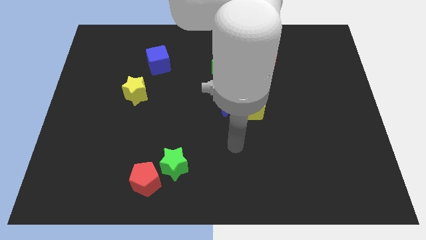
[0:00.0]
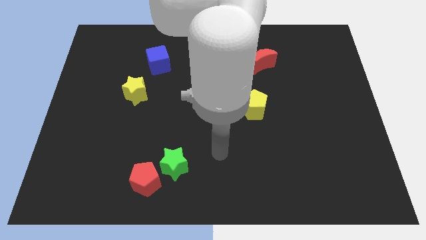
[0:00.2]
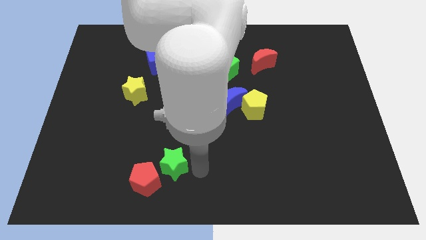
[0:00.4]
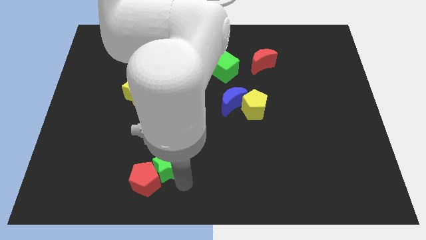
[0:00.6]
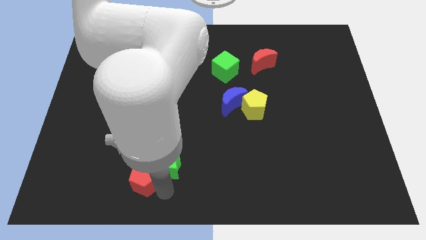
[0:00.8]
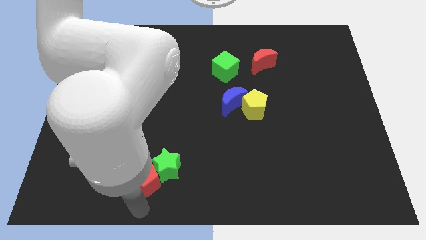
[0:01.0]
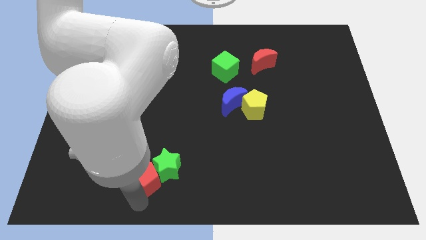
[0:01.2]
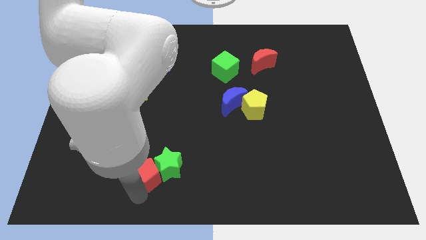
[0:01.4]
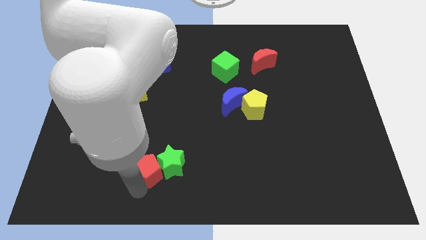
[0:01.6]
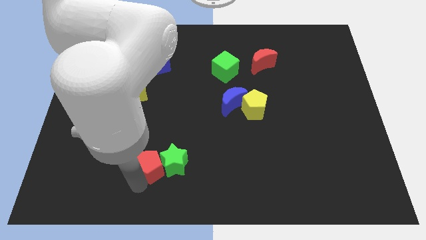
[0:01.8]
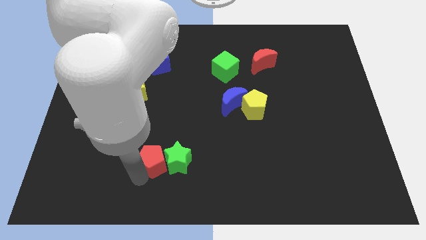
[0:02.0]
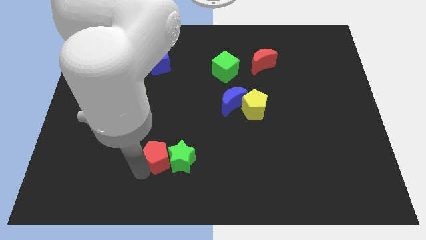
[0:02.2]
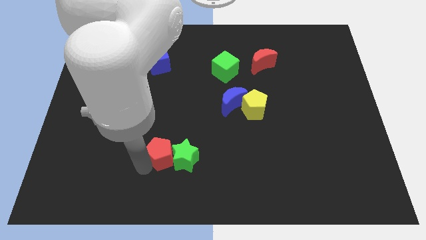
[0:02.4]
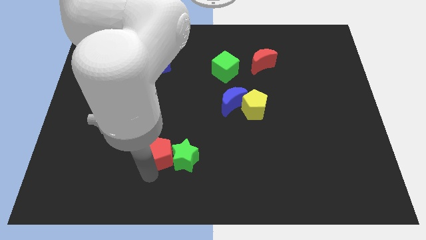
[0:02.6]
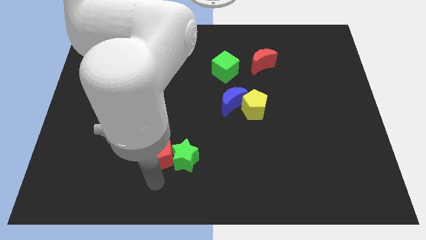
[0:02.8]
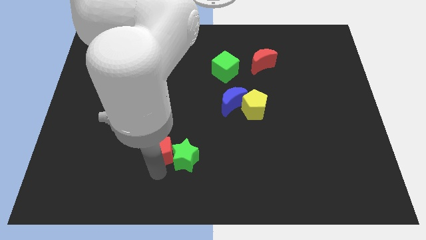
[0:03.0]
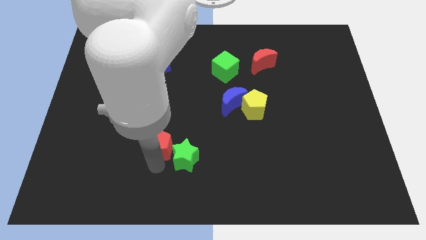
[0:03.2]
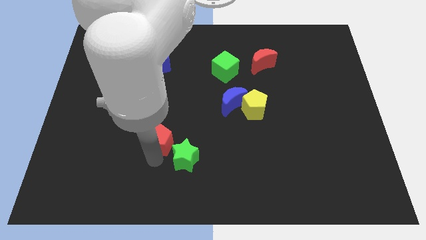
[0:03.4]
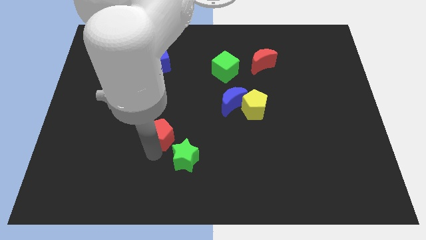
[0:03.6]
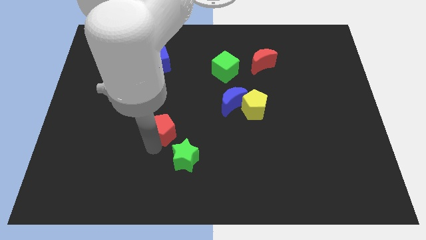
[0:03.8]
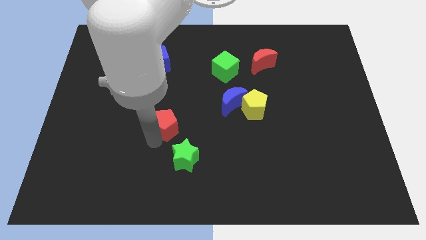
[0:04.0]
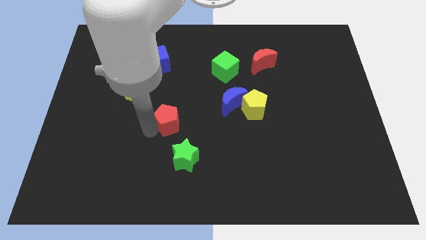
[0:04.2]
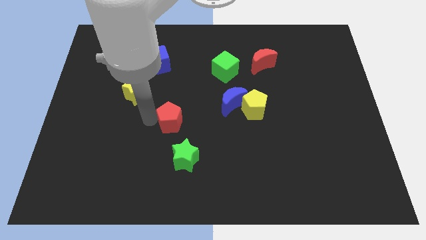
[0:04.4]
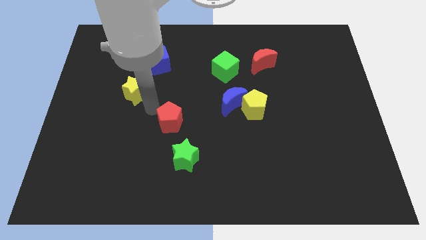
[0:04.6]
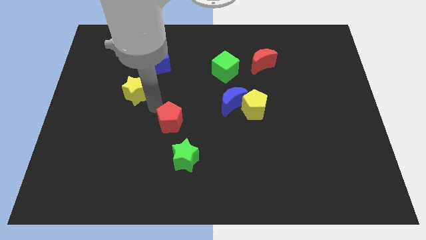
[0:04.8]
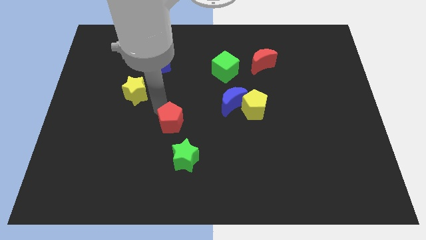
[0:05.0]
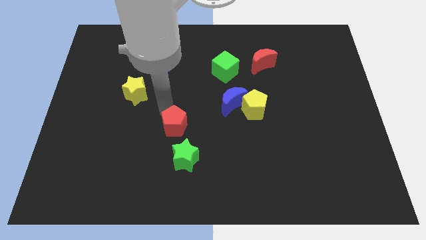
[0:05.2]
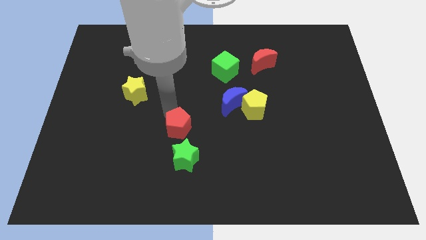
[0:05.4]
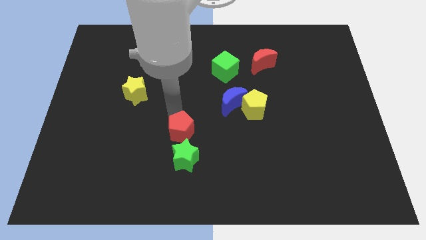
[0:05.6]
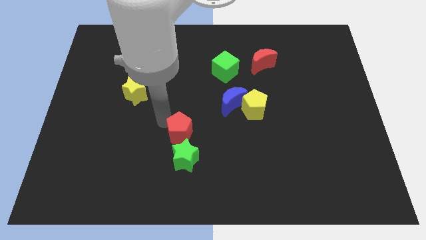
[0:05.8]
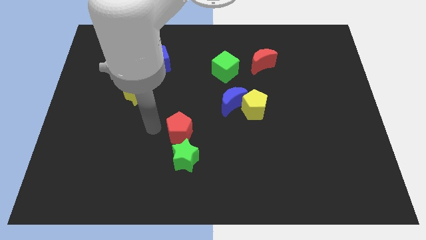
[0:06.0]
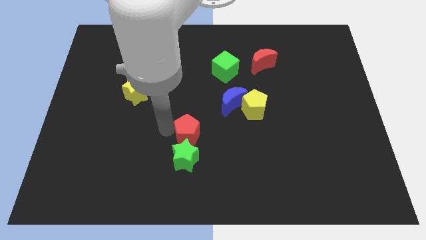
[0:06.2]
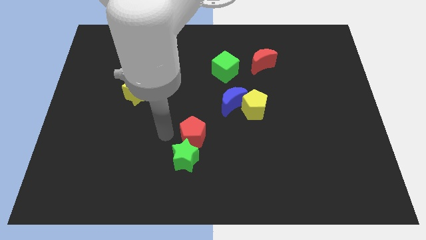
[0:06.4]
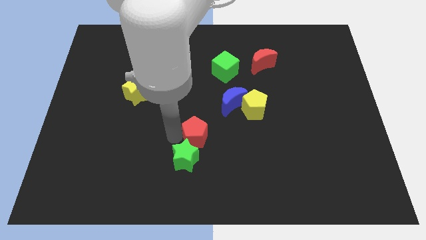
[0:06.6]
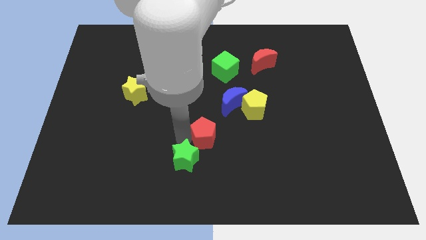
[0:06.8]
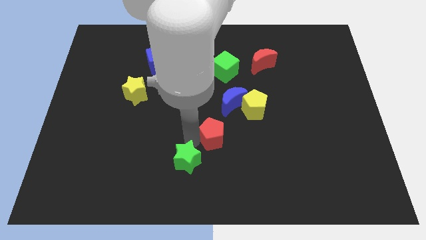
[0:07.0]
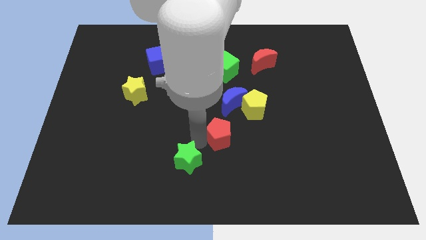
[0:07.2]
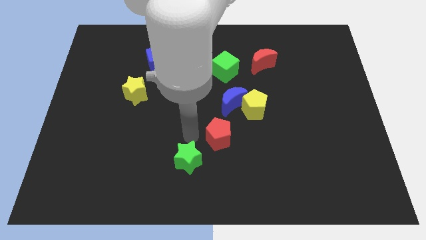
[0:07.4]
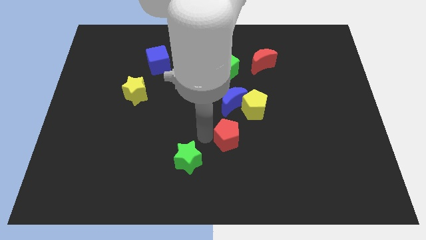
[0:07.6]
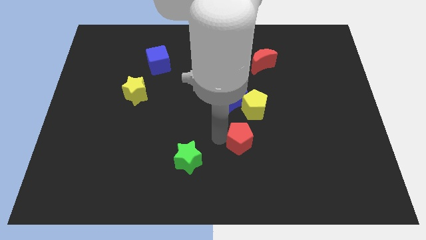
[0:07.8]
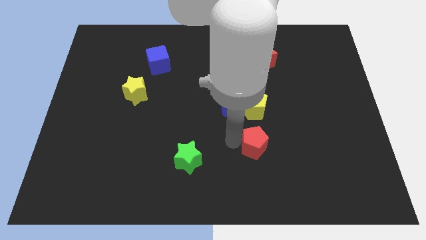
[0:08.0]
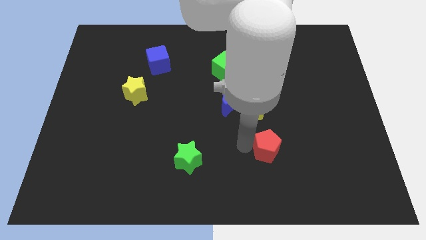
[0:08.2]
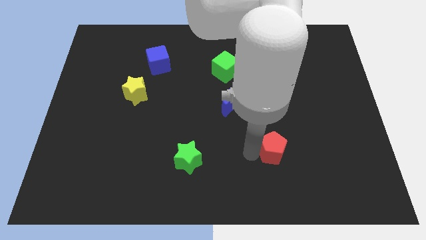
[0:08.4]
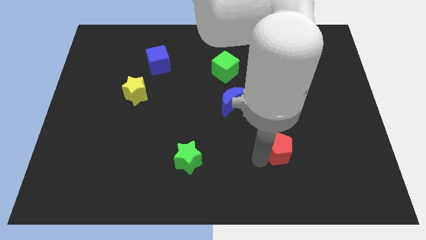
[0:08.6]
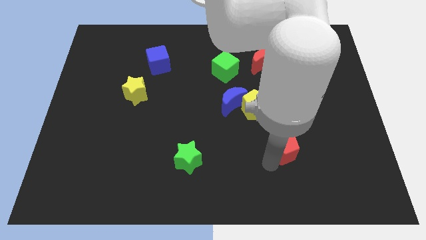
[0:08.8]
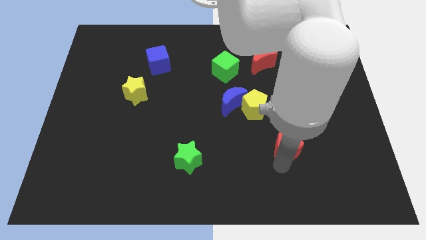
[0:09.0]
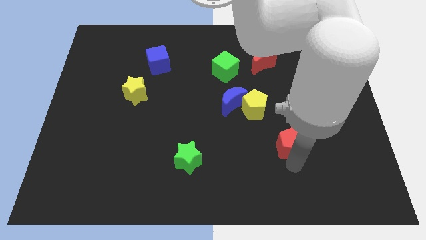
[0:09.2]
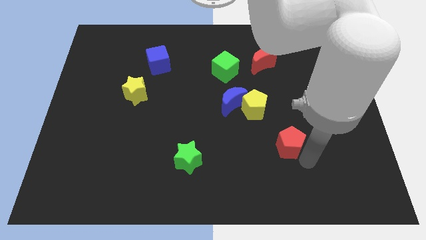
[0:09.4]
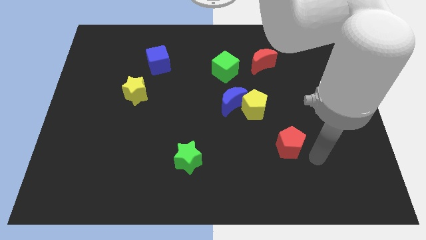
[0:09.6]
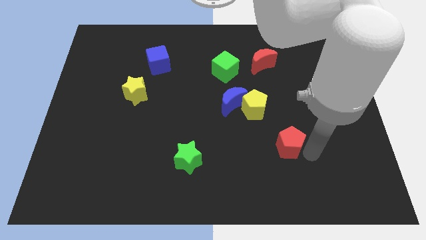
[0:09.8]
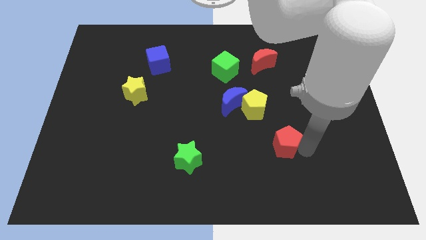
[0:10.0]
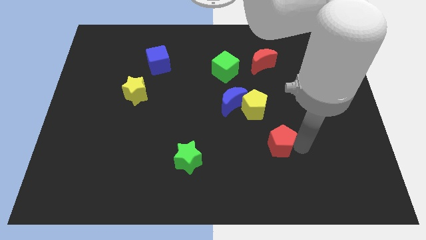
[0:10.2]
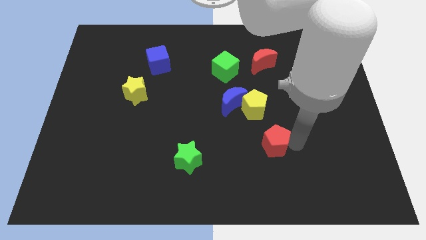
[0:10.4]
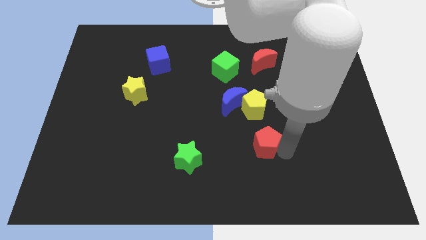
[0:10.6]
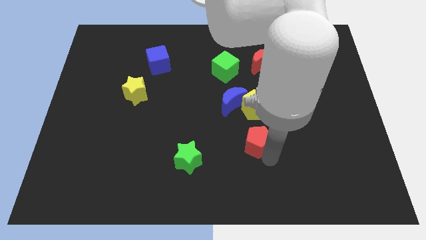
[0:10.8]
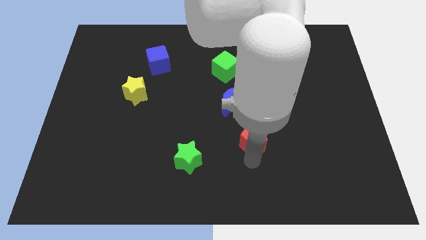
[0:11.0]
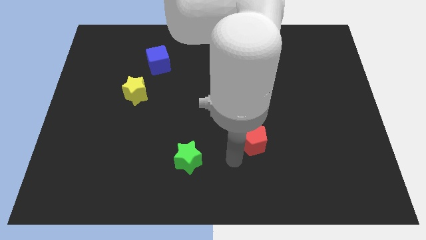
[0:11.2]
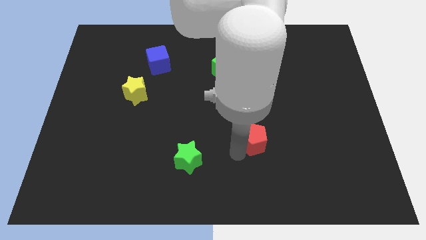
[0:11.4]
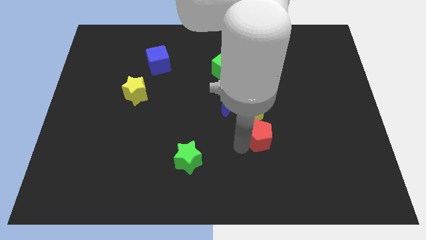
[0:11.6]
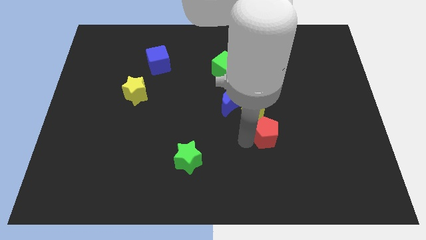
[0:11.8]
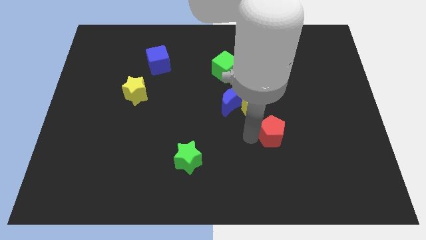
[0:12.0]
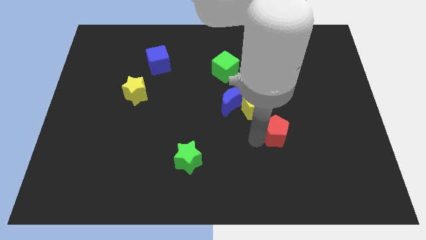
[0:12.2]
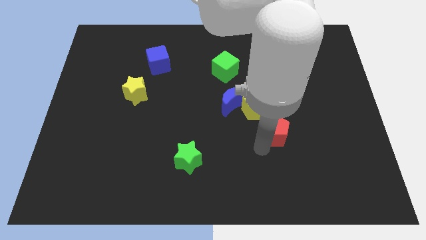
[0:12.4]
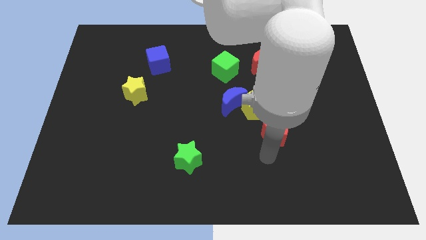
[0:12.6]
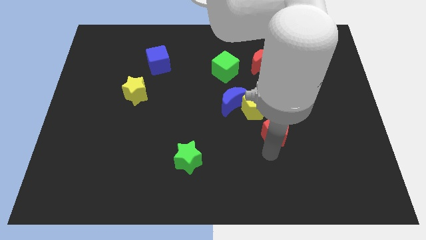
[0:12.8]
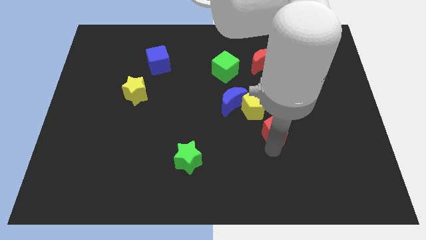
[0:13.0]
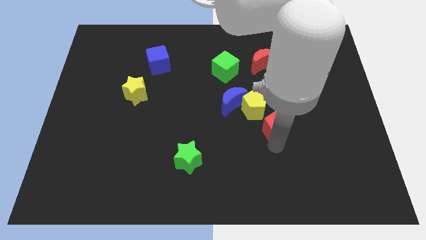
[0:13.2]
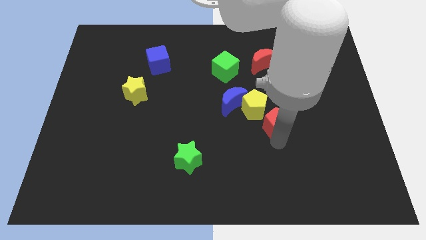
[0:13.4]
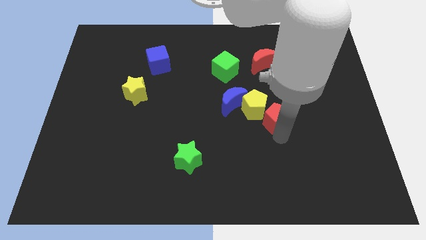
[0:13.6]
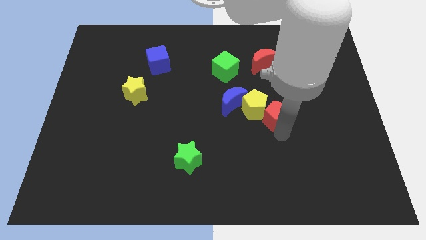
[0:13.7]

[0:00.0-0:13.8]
slide the red pentagon to the right side of the blue moon

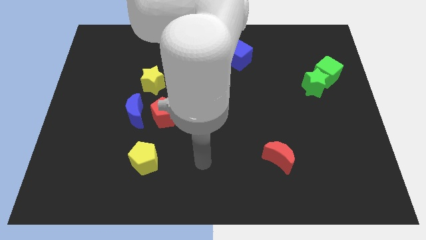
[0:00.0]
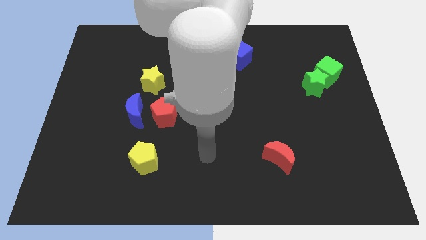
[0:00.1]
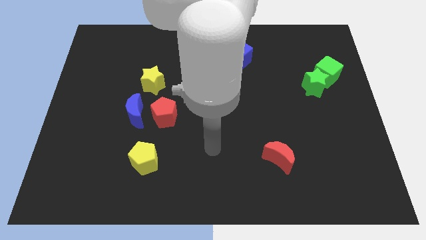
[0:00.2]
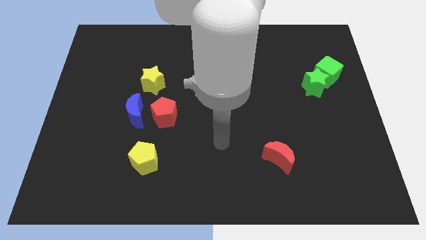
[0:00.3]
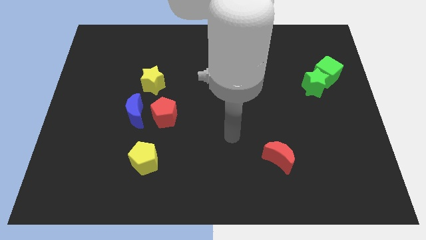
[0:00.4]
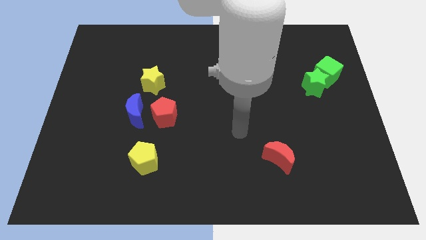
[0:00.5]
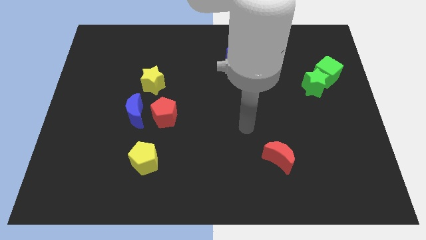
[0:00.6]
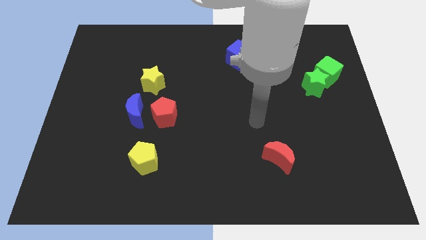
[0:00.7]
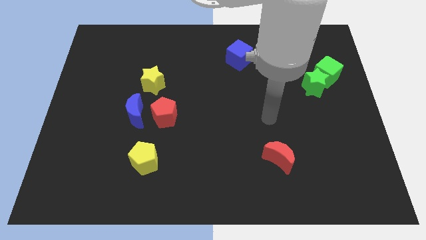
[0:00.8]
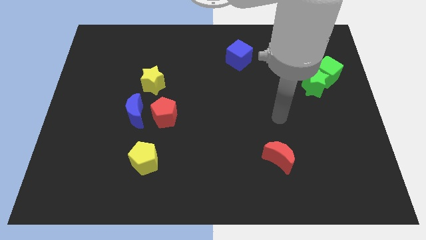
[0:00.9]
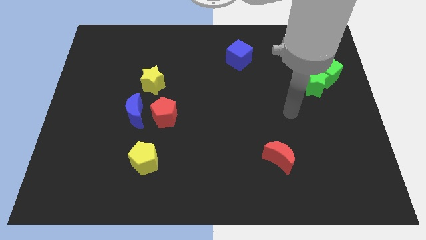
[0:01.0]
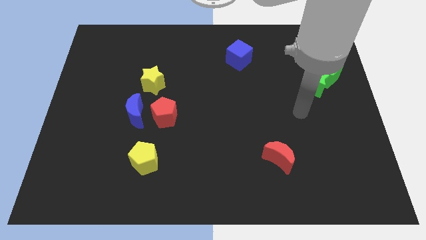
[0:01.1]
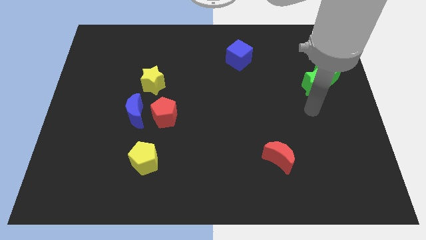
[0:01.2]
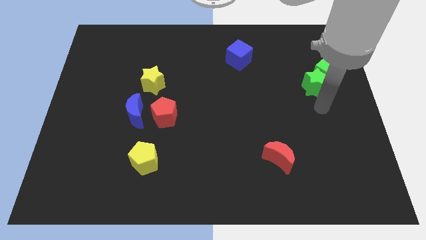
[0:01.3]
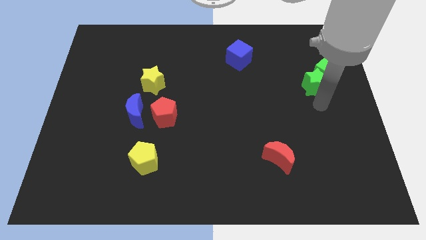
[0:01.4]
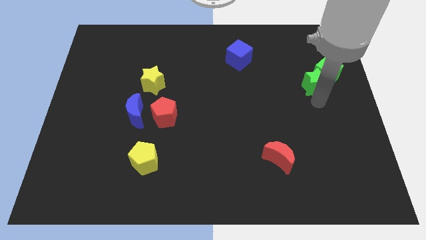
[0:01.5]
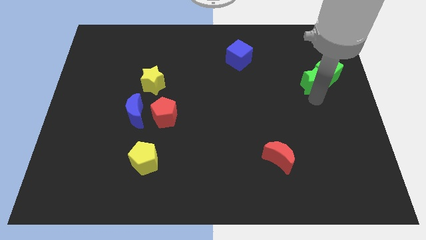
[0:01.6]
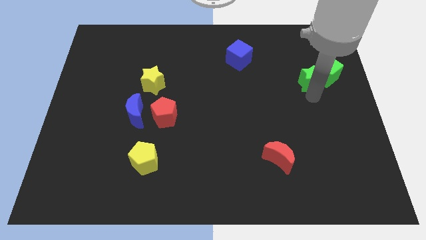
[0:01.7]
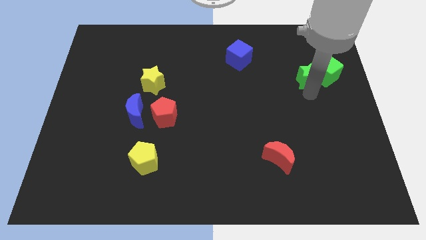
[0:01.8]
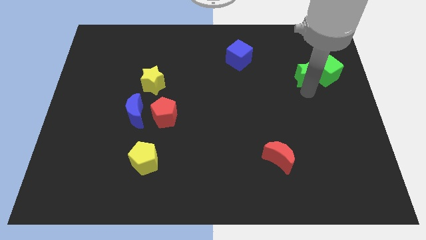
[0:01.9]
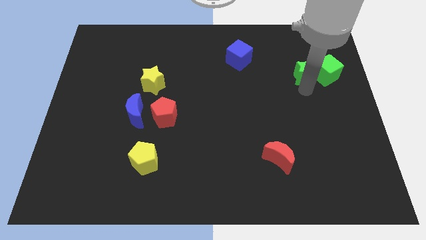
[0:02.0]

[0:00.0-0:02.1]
put the green star to the top left side of the green cube
